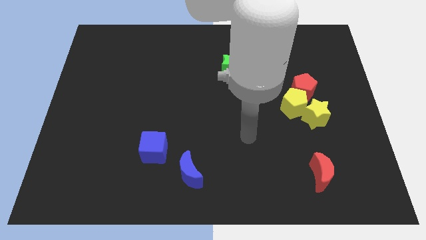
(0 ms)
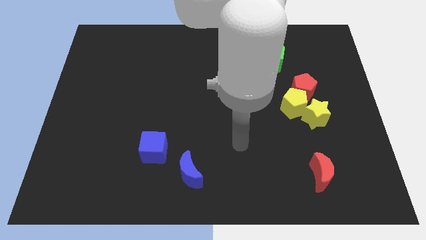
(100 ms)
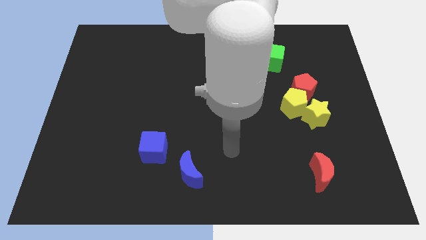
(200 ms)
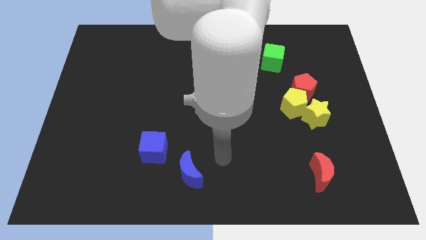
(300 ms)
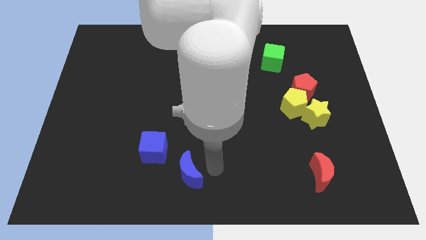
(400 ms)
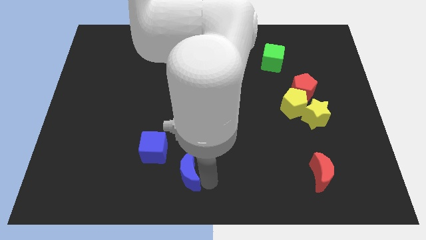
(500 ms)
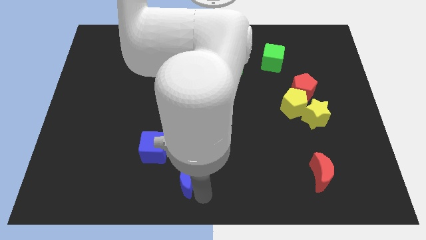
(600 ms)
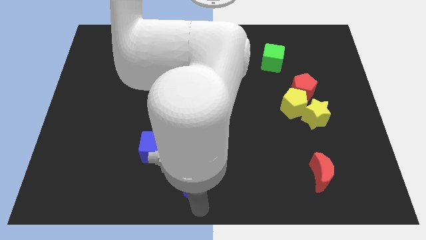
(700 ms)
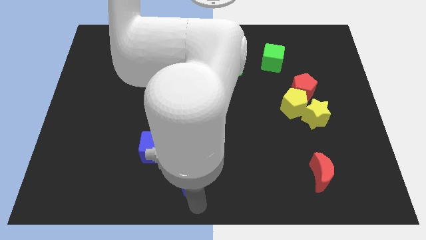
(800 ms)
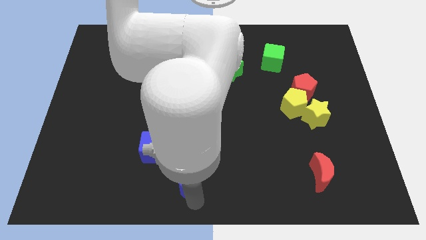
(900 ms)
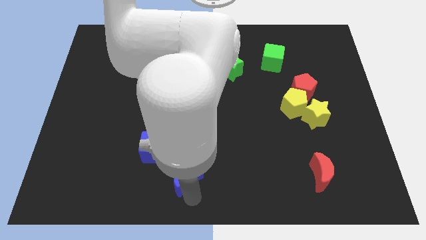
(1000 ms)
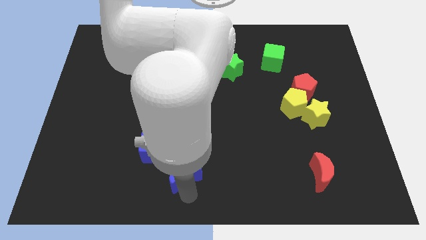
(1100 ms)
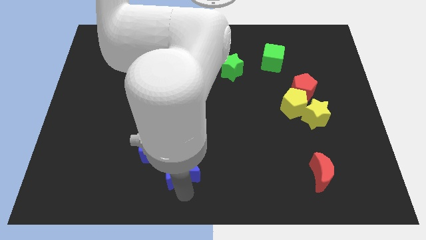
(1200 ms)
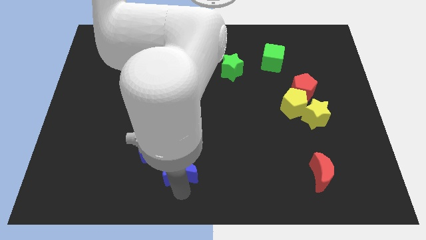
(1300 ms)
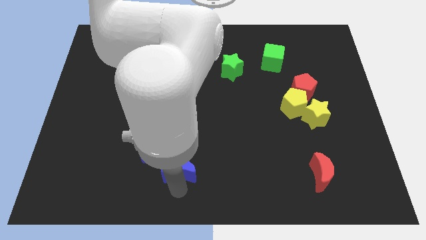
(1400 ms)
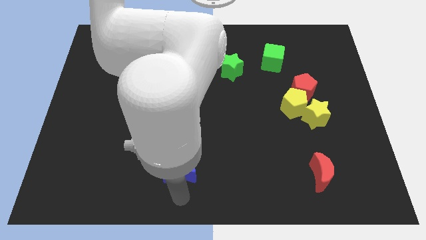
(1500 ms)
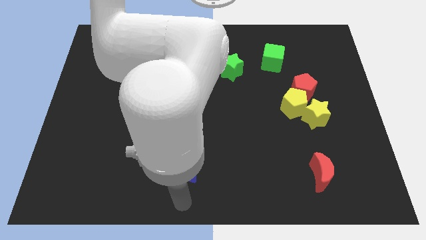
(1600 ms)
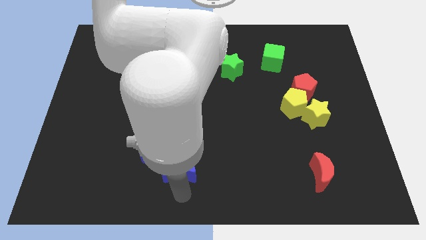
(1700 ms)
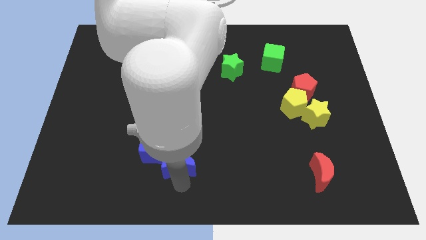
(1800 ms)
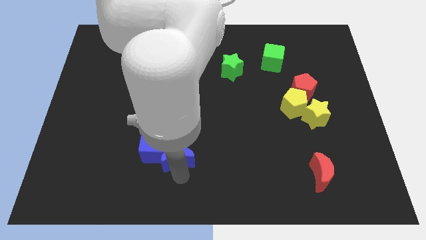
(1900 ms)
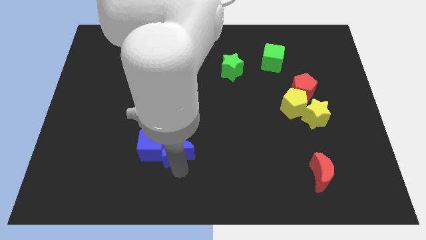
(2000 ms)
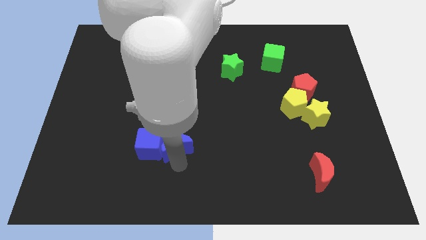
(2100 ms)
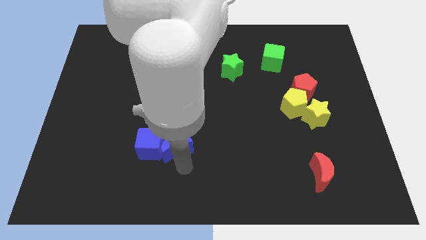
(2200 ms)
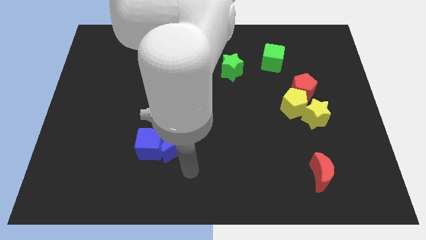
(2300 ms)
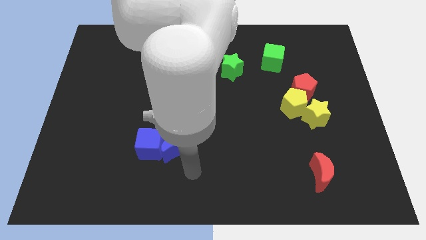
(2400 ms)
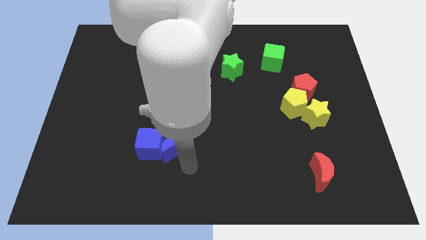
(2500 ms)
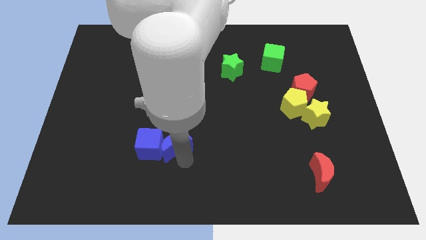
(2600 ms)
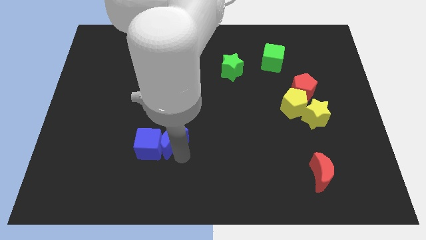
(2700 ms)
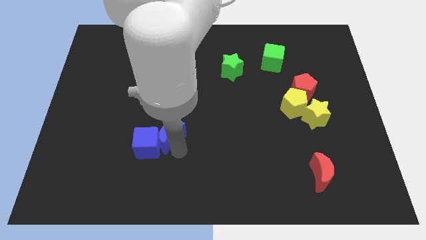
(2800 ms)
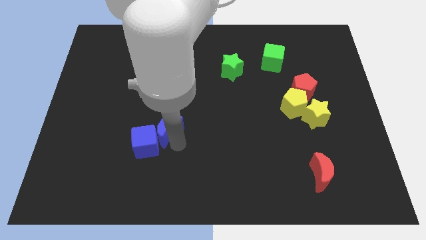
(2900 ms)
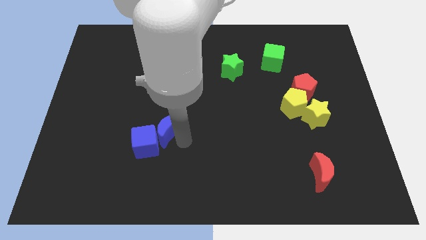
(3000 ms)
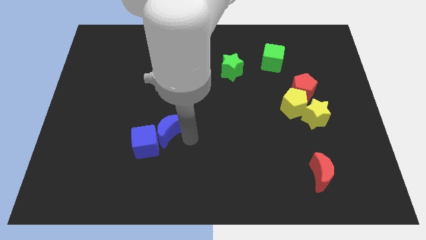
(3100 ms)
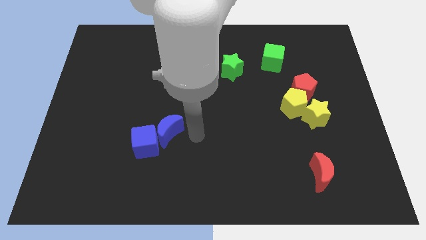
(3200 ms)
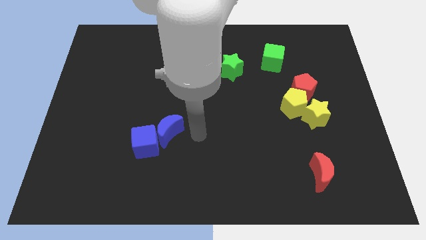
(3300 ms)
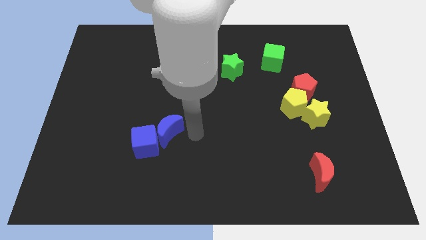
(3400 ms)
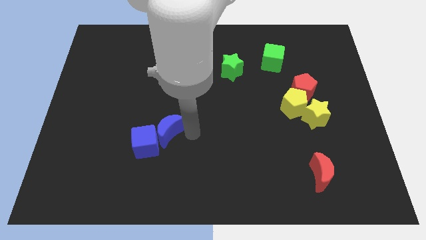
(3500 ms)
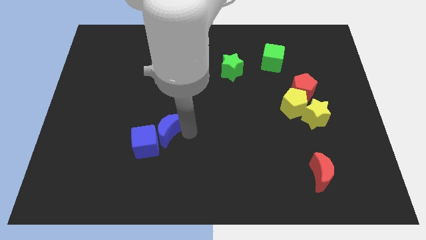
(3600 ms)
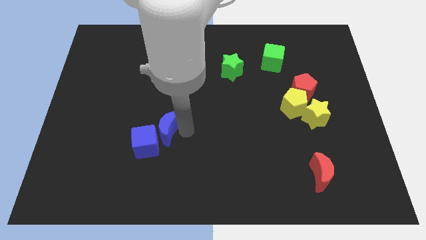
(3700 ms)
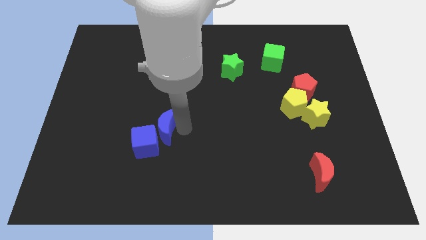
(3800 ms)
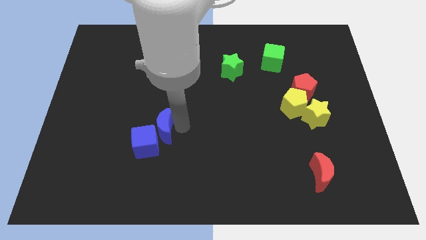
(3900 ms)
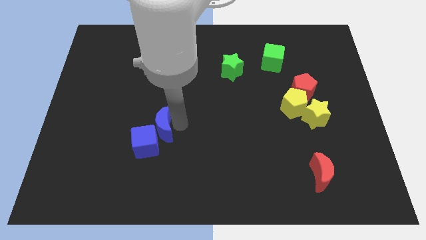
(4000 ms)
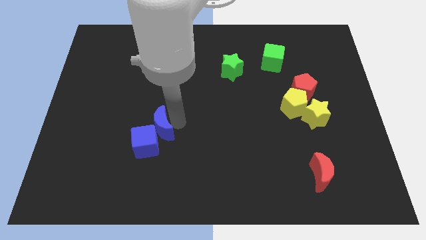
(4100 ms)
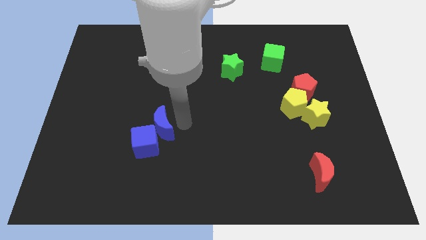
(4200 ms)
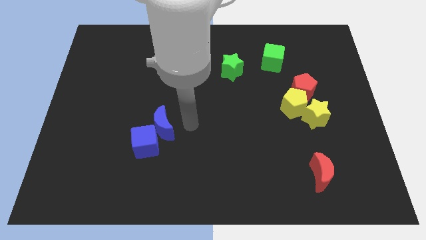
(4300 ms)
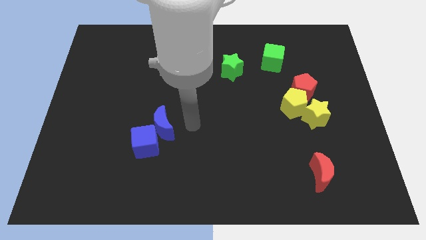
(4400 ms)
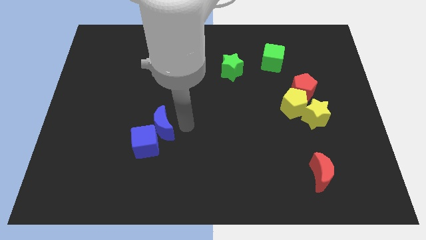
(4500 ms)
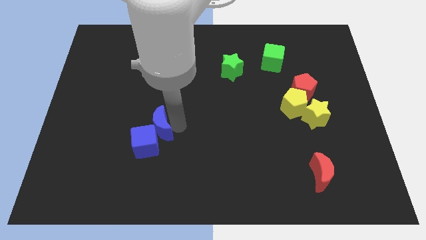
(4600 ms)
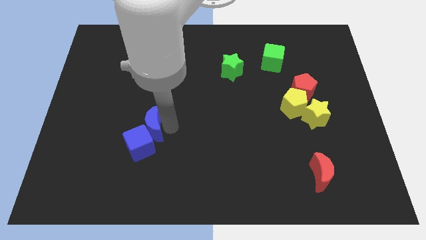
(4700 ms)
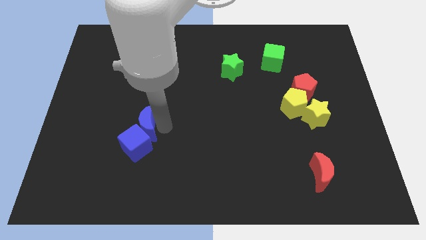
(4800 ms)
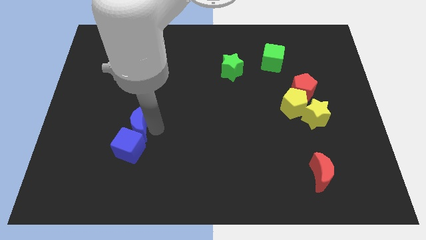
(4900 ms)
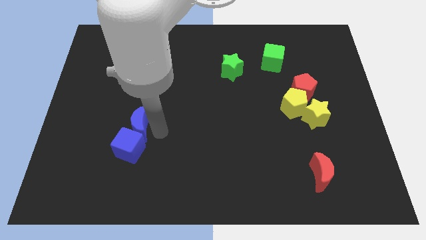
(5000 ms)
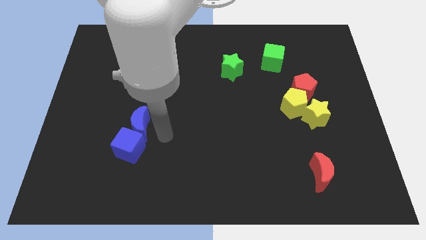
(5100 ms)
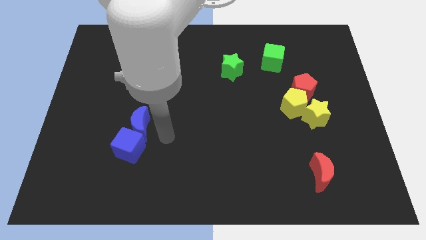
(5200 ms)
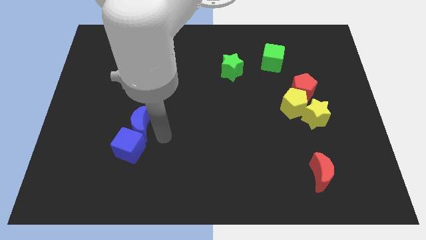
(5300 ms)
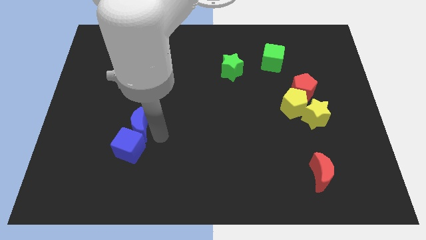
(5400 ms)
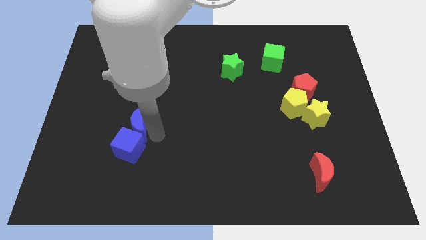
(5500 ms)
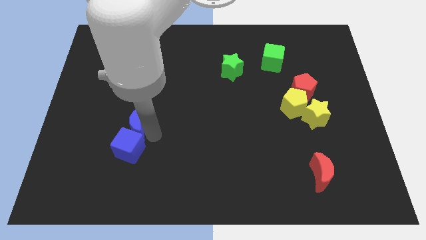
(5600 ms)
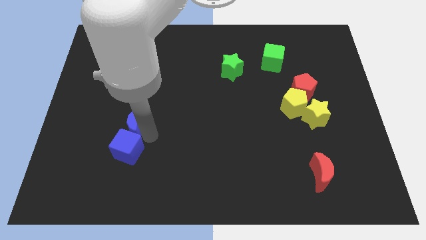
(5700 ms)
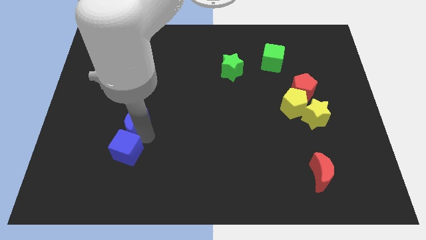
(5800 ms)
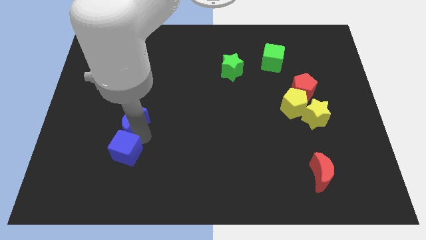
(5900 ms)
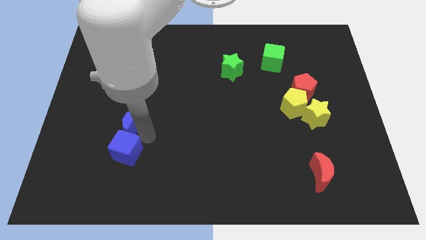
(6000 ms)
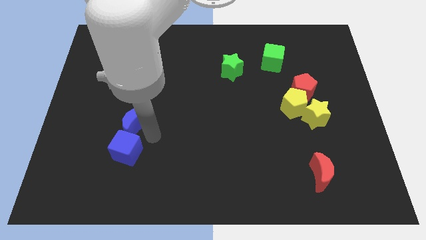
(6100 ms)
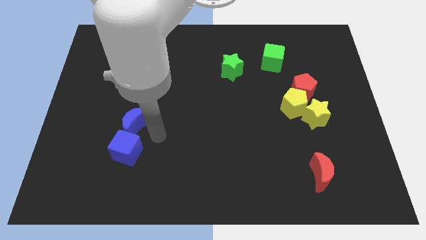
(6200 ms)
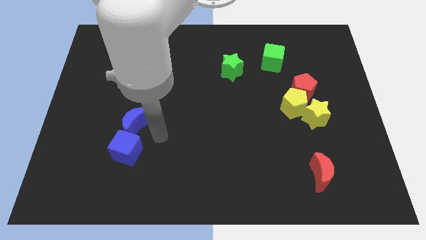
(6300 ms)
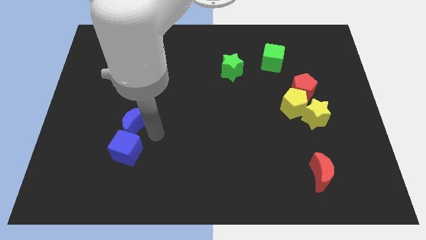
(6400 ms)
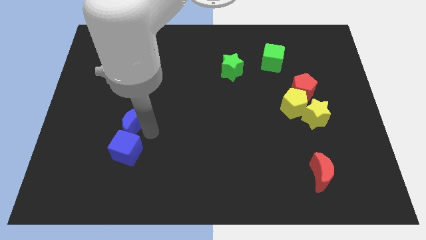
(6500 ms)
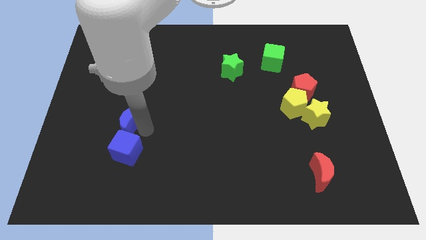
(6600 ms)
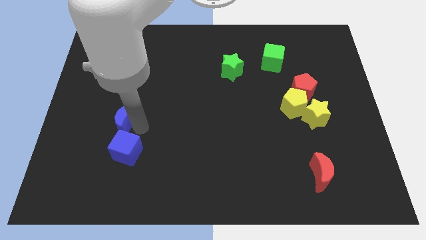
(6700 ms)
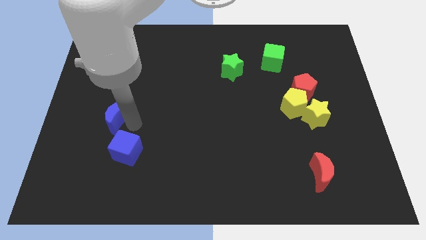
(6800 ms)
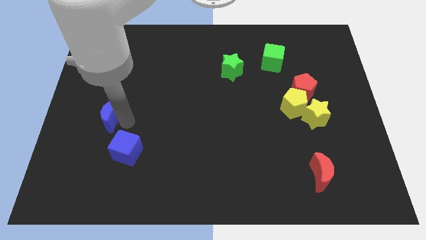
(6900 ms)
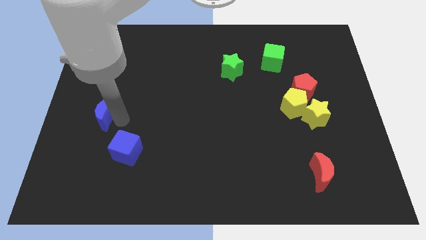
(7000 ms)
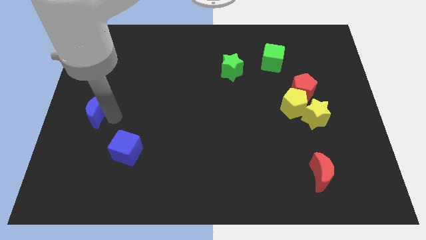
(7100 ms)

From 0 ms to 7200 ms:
slide the blue moon to the left side of the board

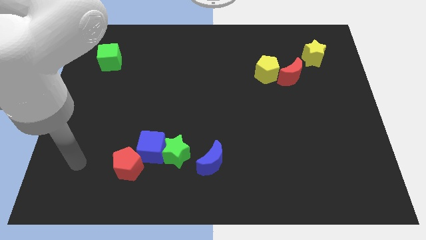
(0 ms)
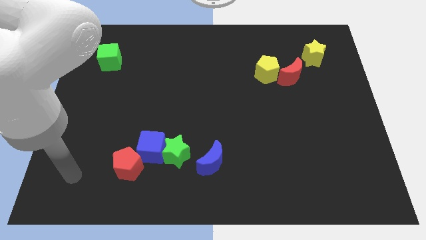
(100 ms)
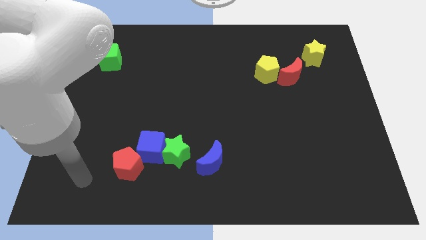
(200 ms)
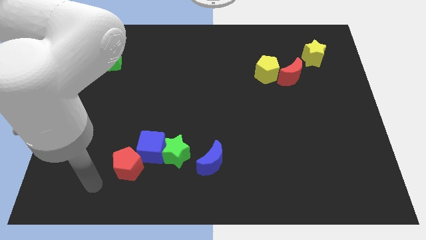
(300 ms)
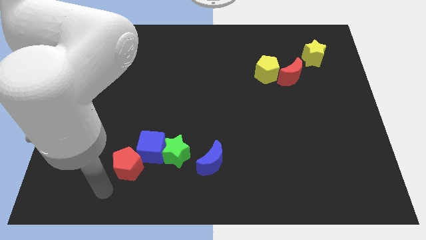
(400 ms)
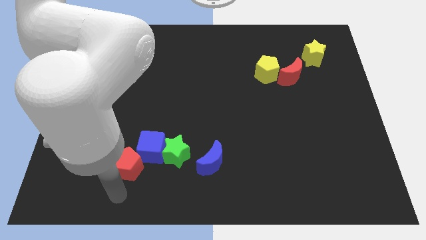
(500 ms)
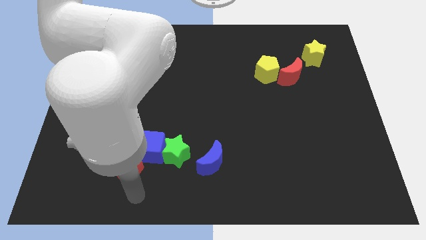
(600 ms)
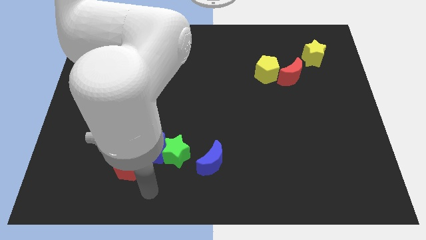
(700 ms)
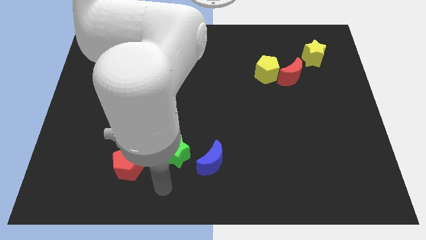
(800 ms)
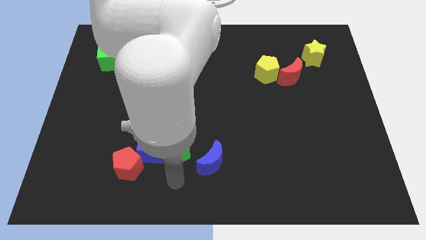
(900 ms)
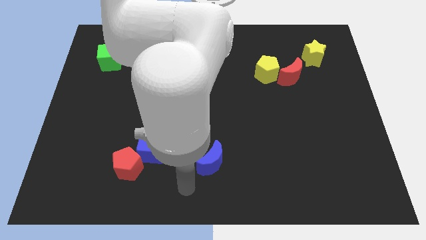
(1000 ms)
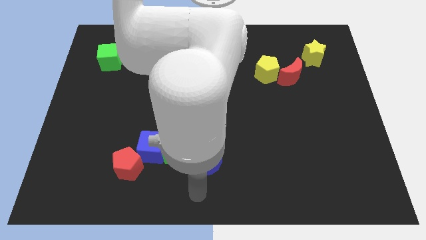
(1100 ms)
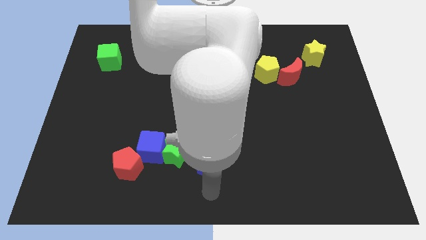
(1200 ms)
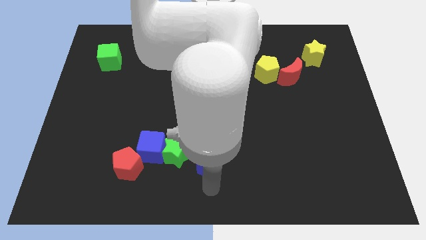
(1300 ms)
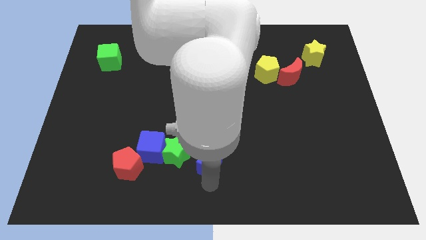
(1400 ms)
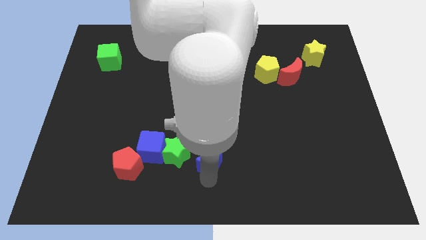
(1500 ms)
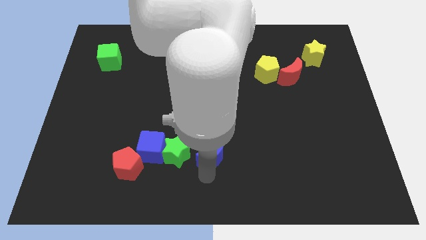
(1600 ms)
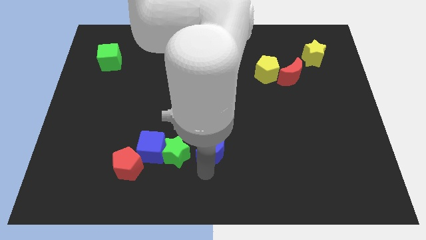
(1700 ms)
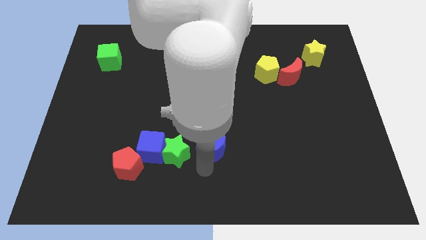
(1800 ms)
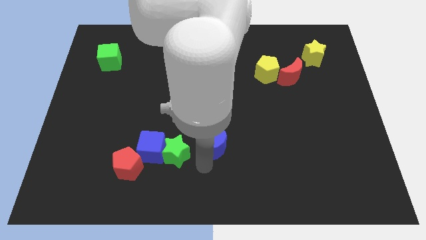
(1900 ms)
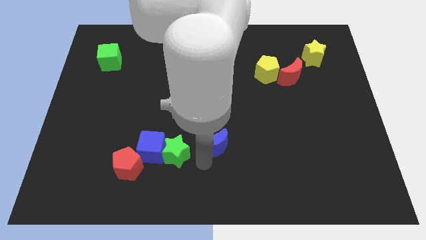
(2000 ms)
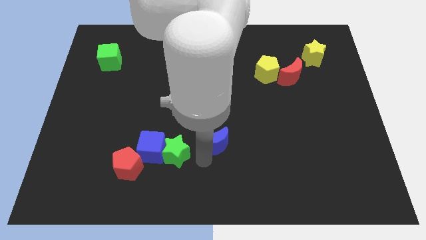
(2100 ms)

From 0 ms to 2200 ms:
slide the blue moon to the middle of the board
